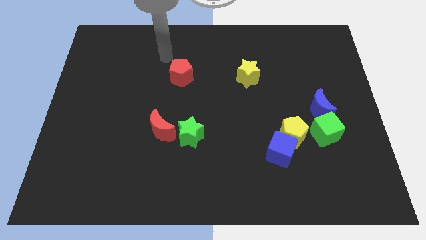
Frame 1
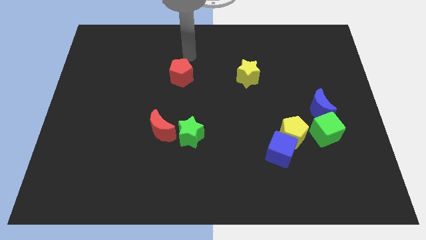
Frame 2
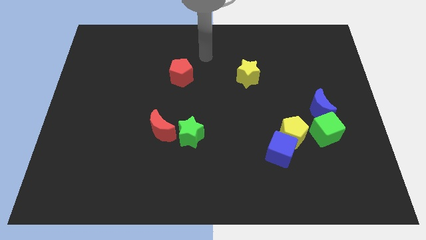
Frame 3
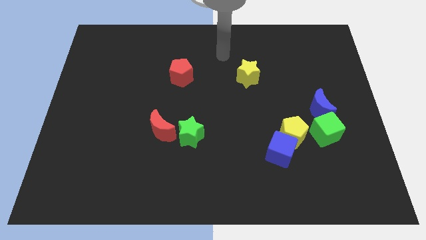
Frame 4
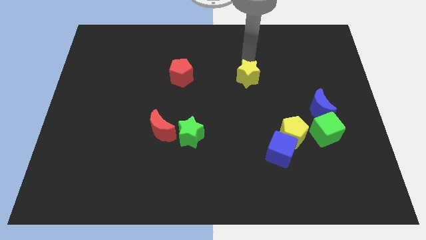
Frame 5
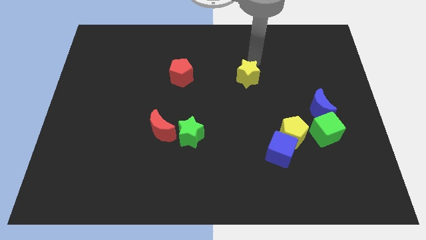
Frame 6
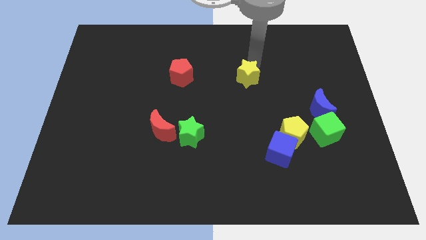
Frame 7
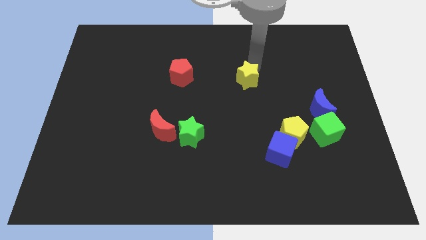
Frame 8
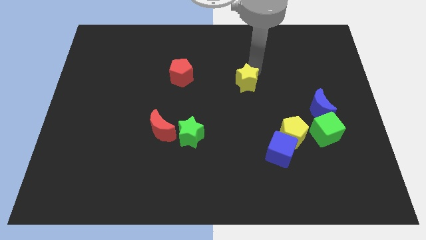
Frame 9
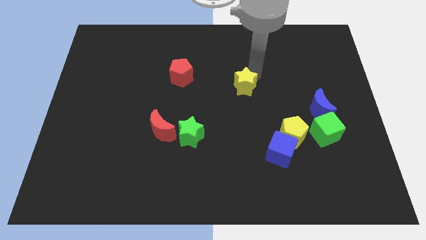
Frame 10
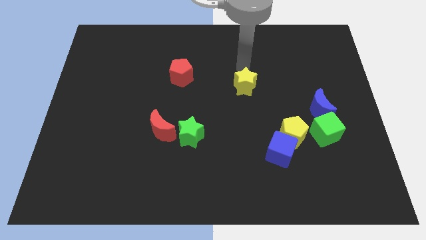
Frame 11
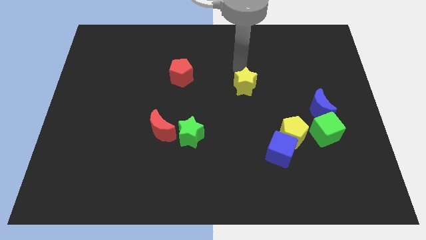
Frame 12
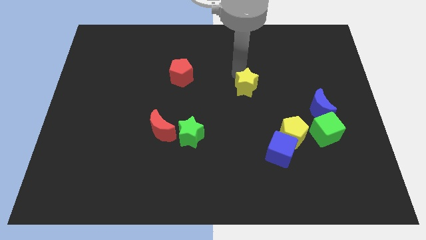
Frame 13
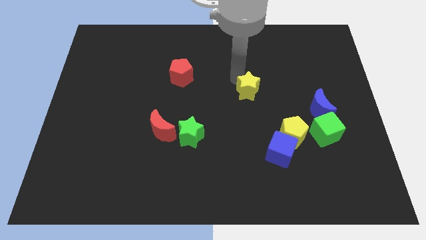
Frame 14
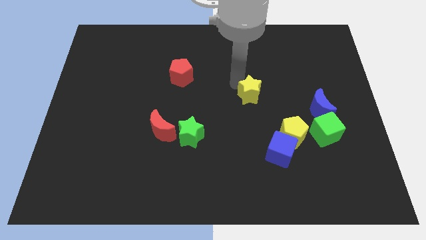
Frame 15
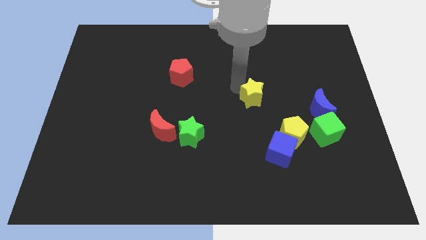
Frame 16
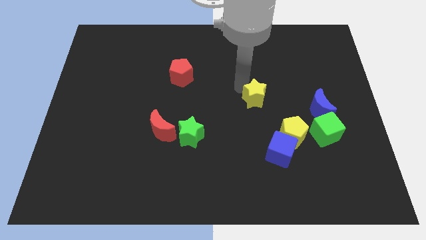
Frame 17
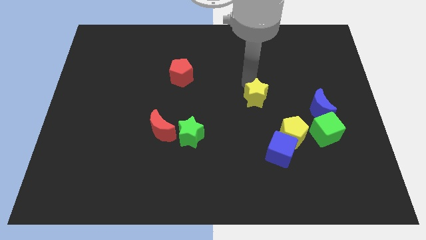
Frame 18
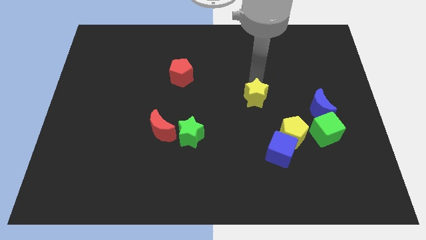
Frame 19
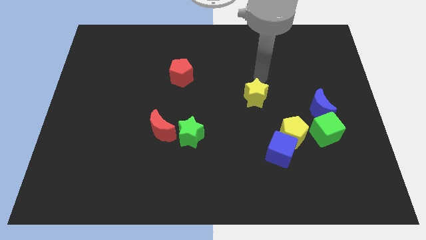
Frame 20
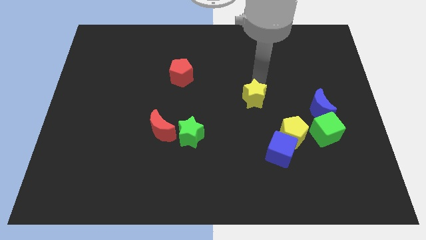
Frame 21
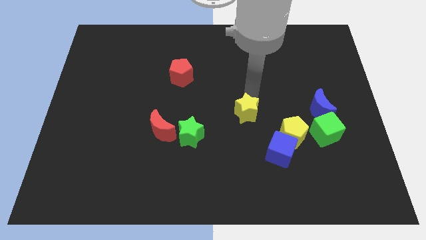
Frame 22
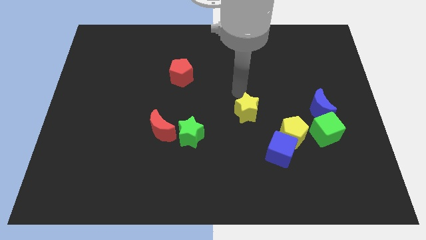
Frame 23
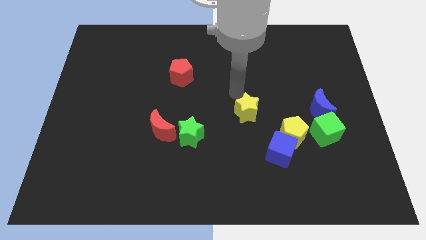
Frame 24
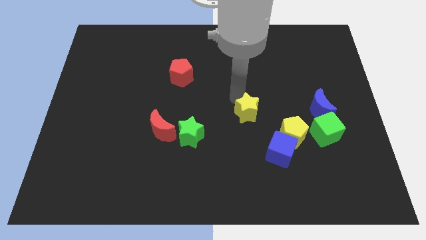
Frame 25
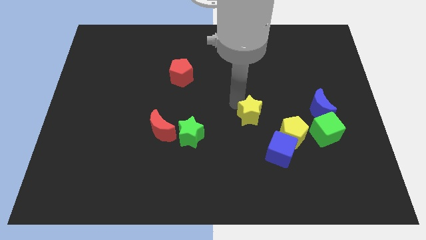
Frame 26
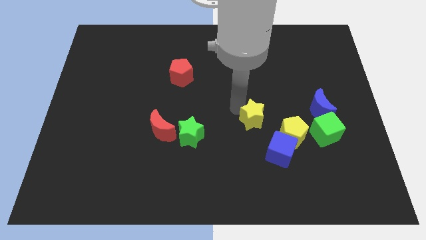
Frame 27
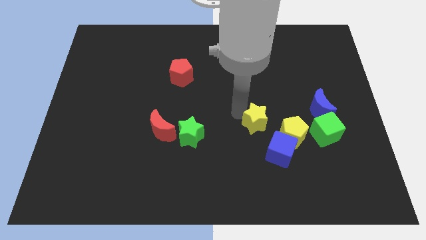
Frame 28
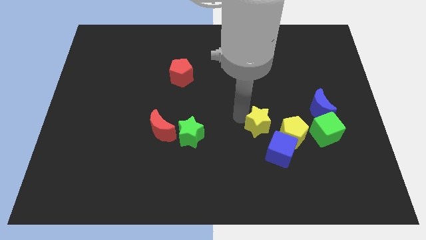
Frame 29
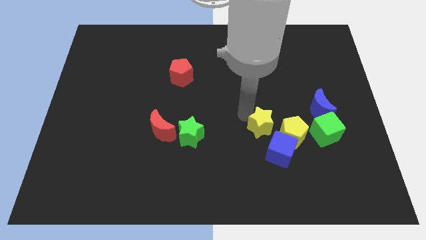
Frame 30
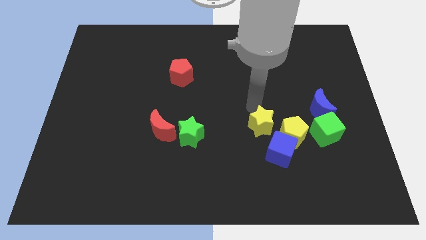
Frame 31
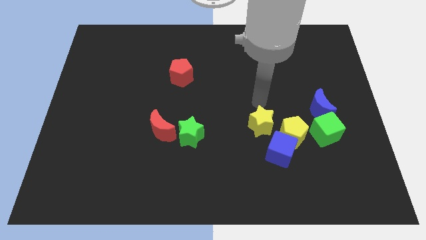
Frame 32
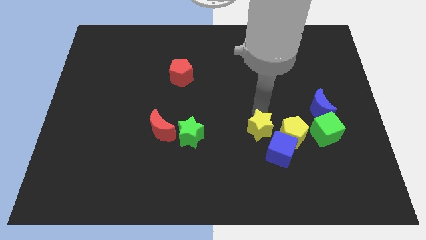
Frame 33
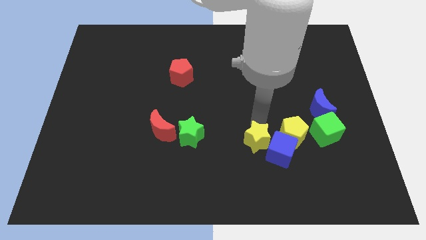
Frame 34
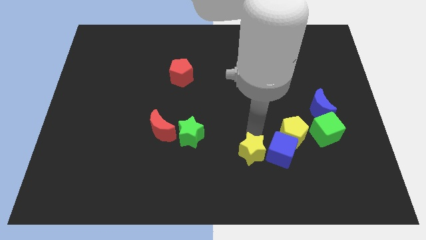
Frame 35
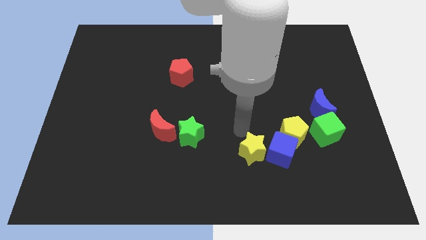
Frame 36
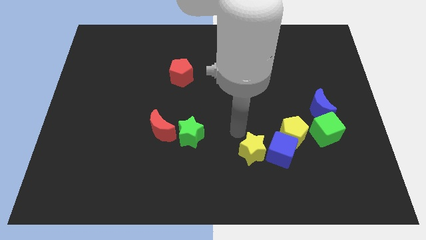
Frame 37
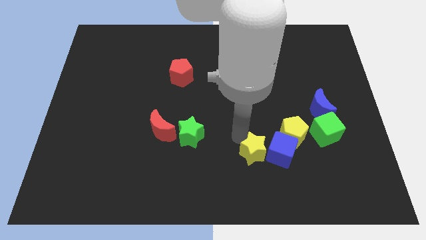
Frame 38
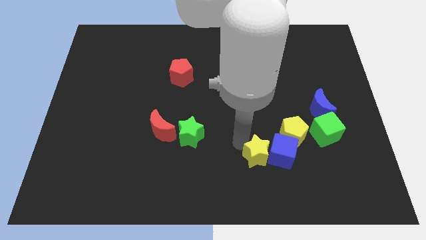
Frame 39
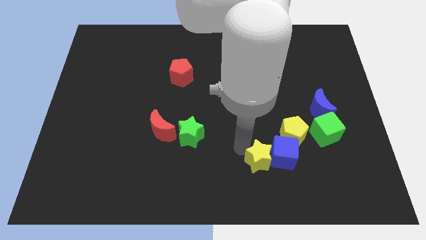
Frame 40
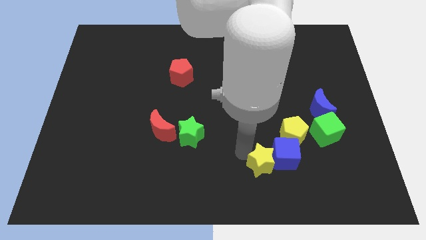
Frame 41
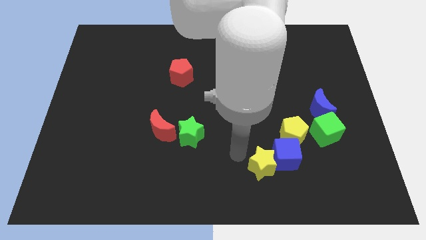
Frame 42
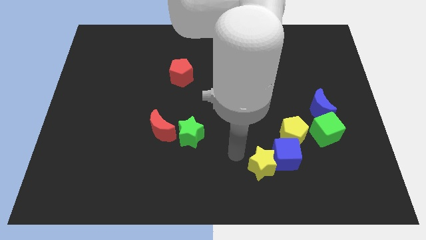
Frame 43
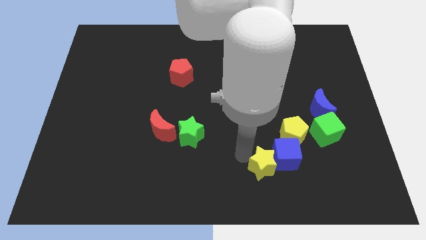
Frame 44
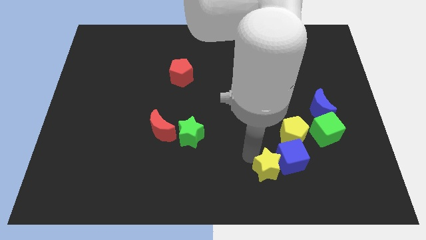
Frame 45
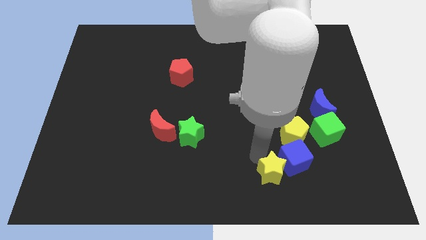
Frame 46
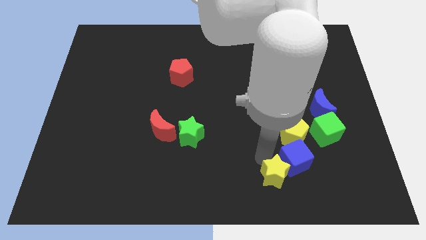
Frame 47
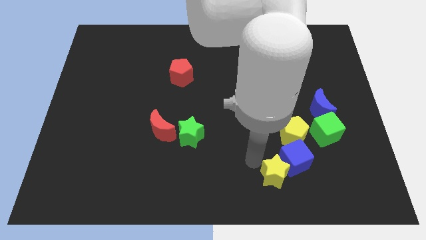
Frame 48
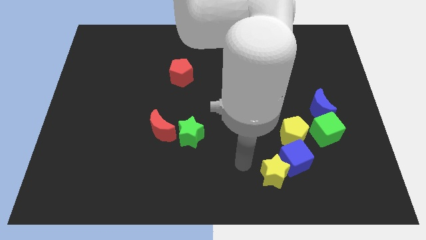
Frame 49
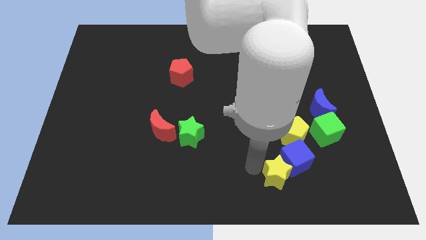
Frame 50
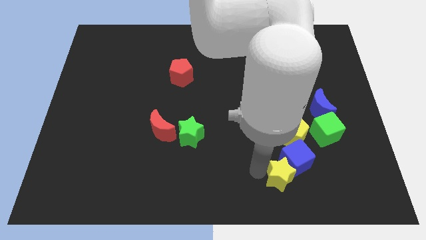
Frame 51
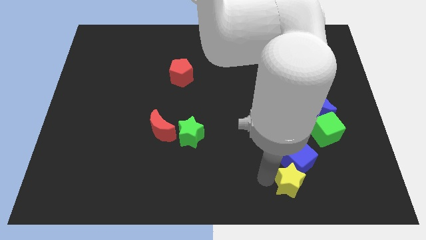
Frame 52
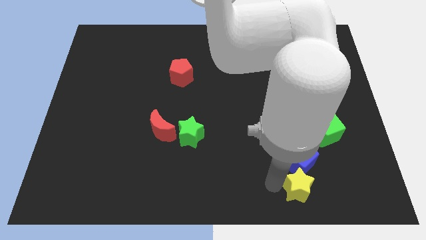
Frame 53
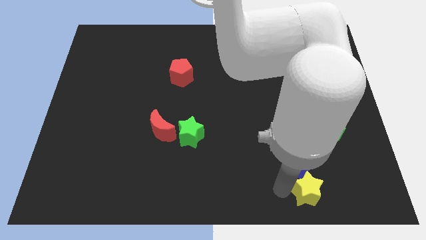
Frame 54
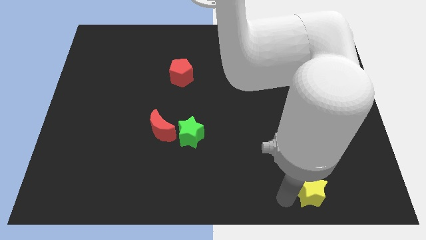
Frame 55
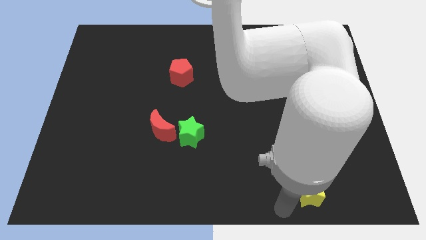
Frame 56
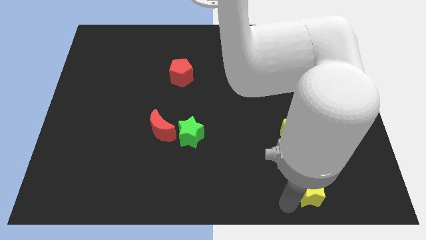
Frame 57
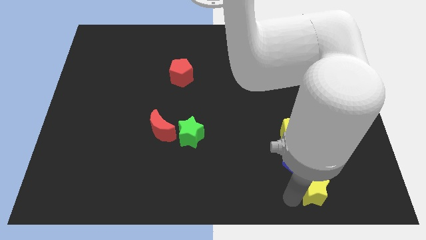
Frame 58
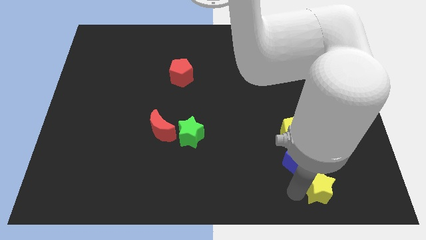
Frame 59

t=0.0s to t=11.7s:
push the yellow star to the bottom side of the green cube
